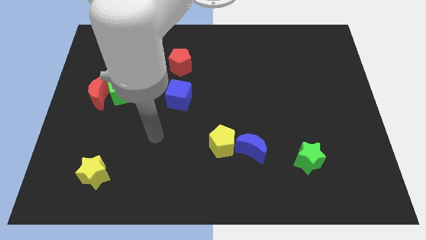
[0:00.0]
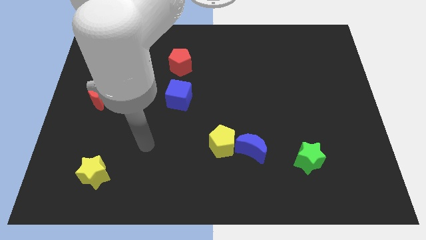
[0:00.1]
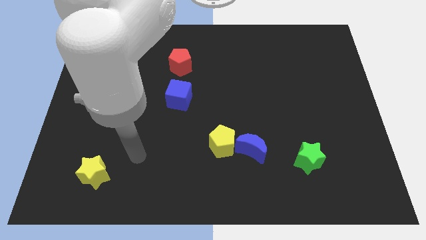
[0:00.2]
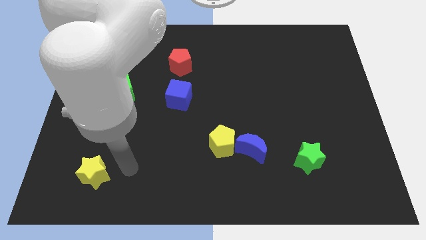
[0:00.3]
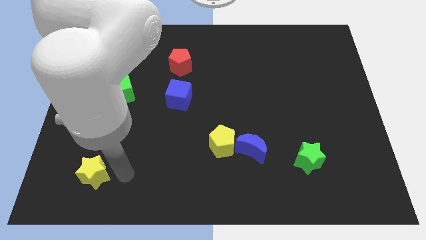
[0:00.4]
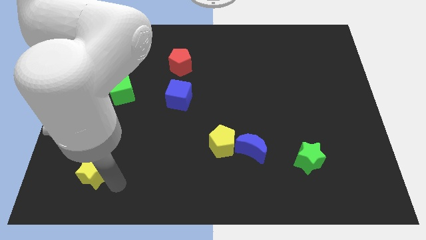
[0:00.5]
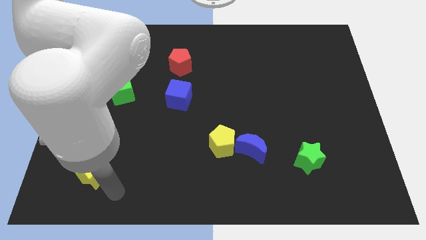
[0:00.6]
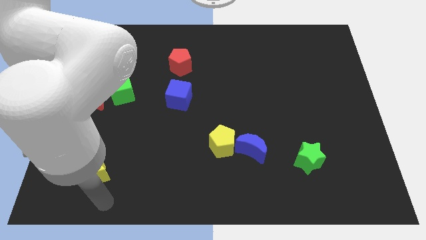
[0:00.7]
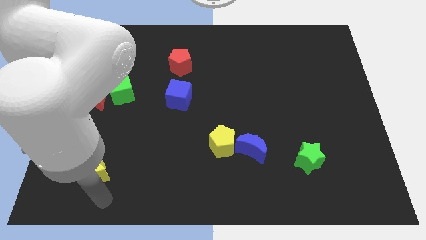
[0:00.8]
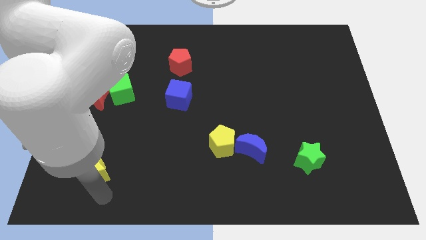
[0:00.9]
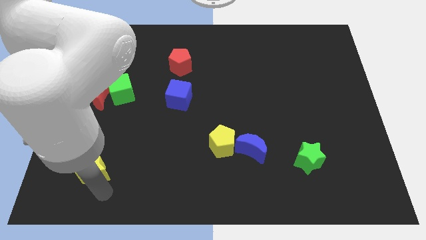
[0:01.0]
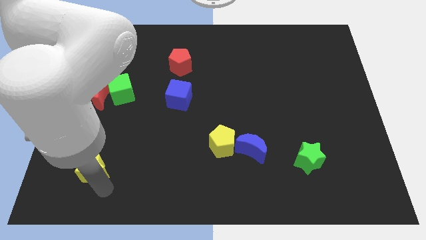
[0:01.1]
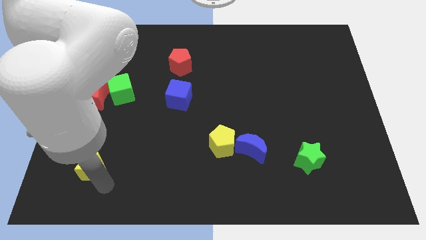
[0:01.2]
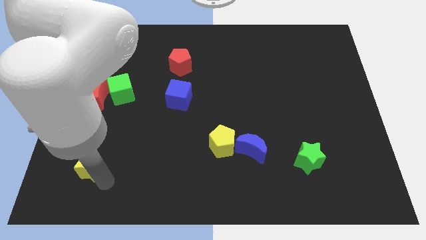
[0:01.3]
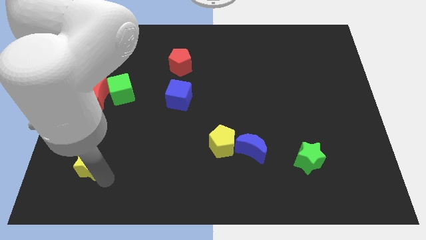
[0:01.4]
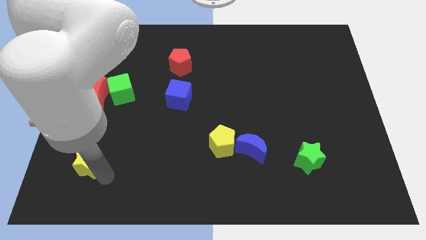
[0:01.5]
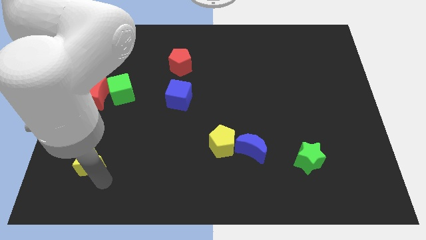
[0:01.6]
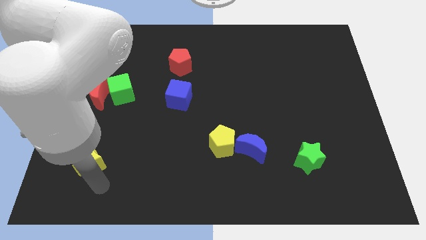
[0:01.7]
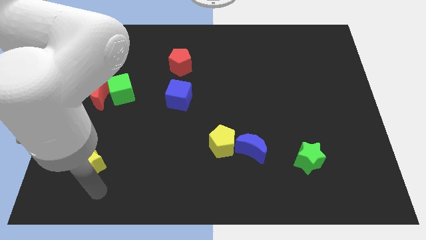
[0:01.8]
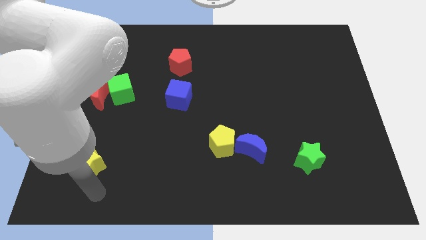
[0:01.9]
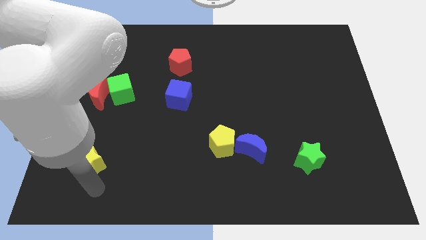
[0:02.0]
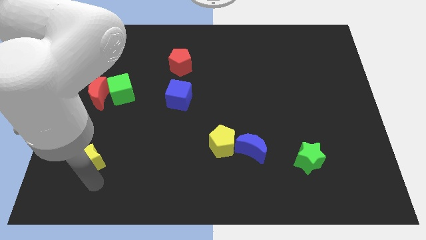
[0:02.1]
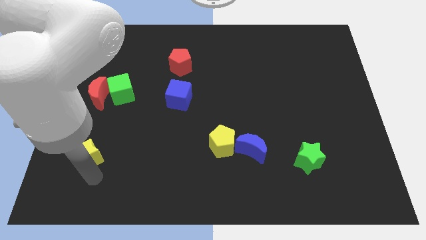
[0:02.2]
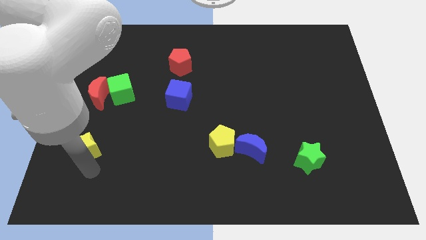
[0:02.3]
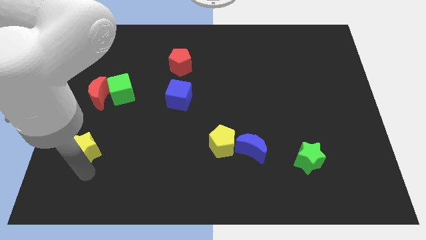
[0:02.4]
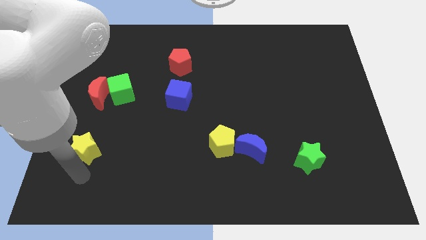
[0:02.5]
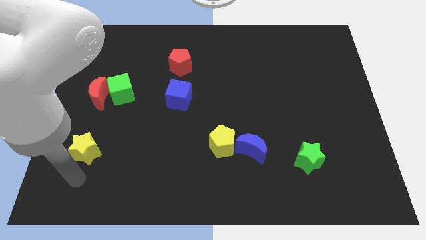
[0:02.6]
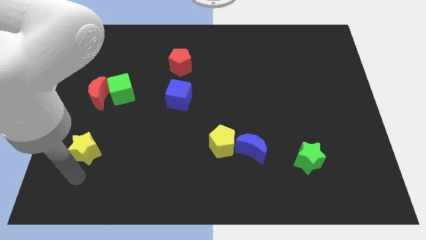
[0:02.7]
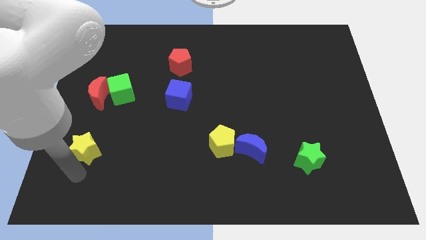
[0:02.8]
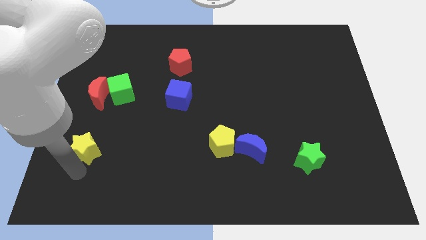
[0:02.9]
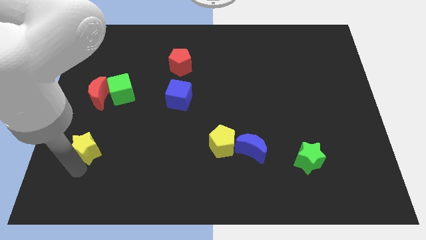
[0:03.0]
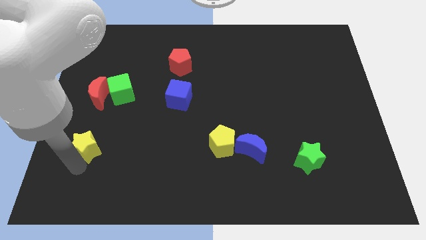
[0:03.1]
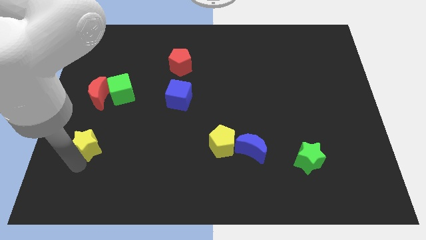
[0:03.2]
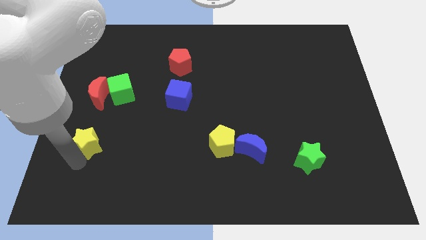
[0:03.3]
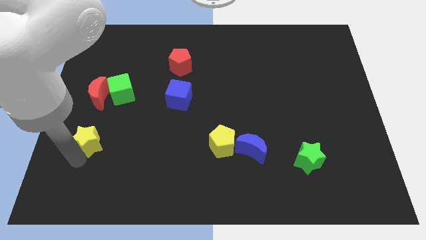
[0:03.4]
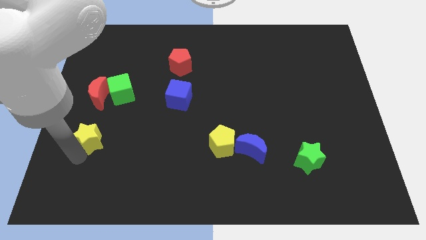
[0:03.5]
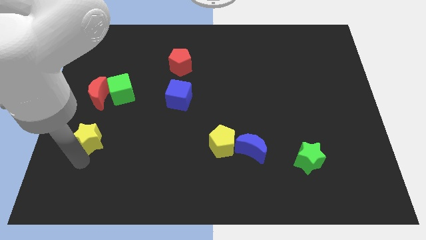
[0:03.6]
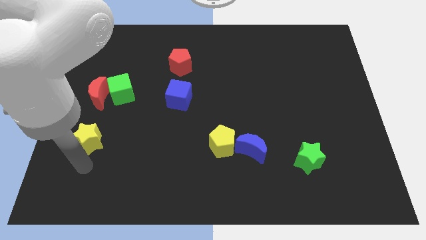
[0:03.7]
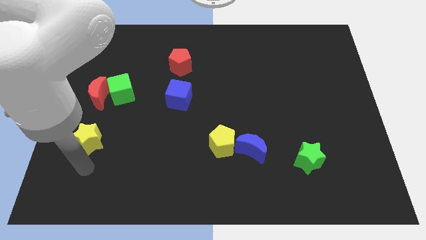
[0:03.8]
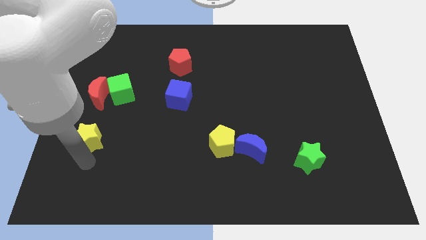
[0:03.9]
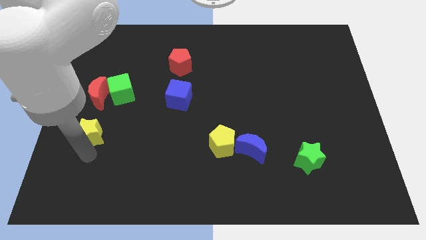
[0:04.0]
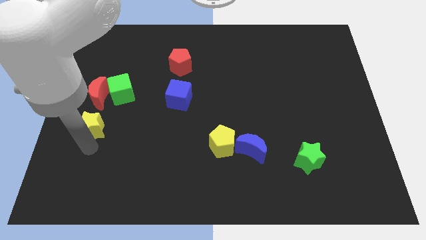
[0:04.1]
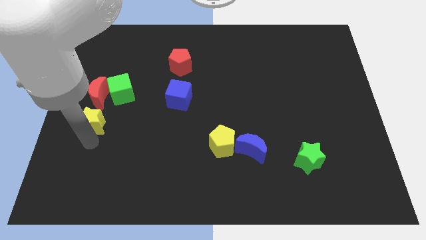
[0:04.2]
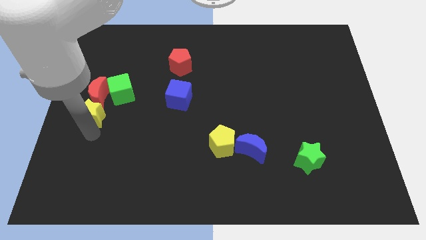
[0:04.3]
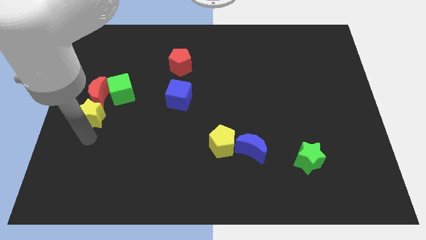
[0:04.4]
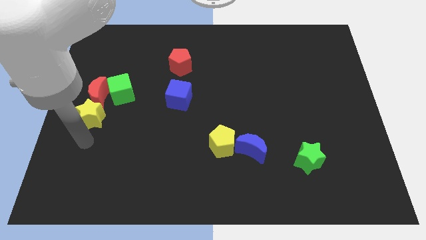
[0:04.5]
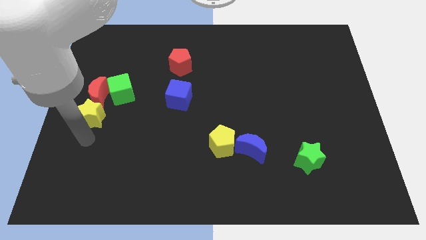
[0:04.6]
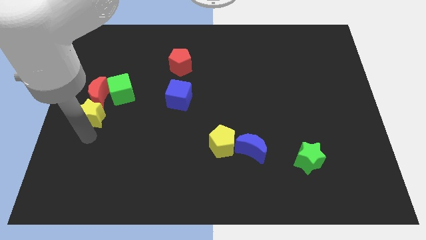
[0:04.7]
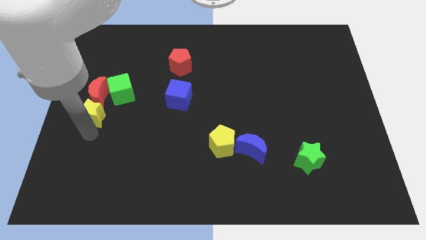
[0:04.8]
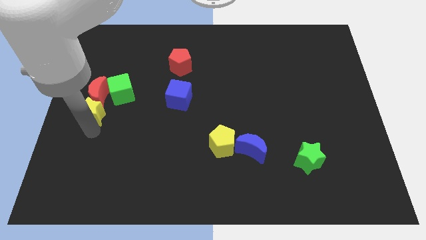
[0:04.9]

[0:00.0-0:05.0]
slide the yellow star to the red moon

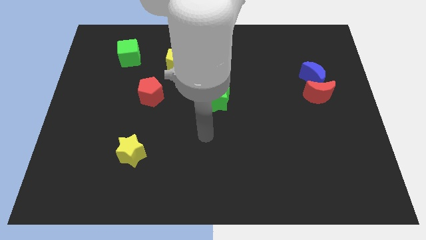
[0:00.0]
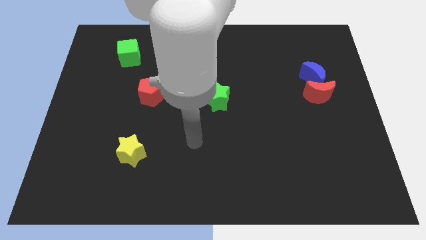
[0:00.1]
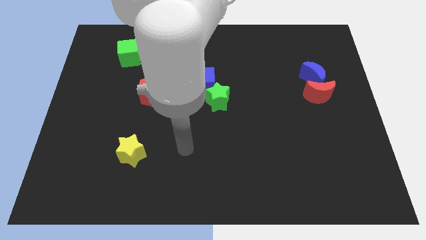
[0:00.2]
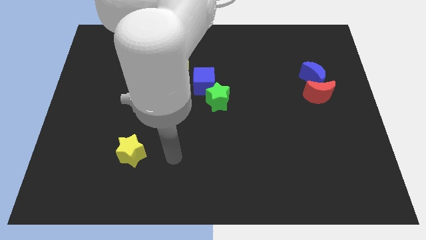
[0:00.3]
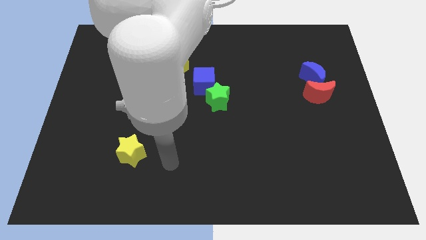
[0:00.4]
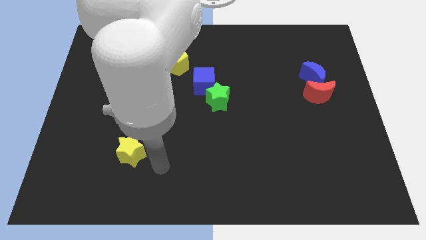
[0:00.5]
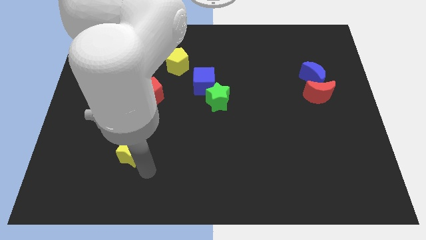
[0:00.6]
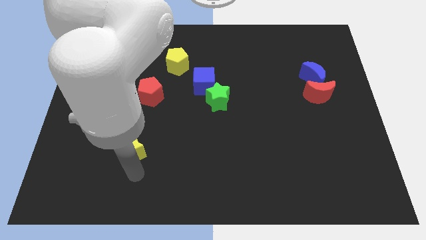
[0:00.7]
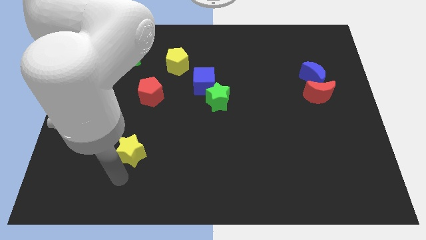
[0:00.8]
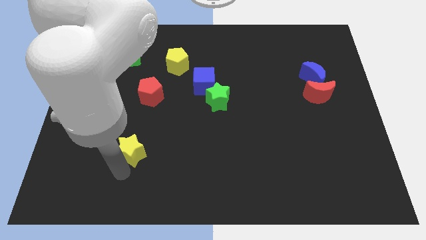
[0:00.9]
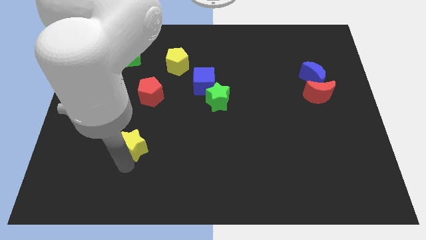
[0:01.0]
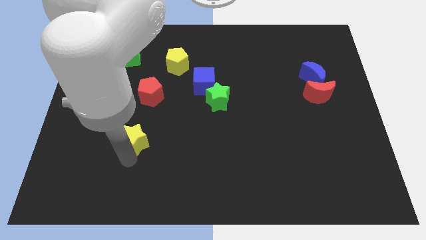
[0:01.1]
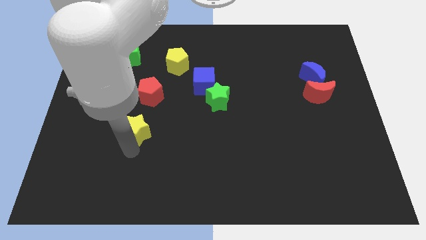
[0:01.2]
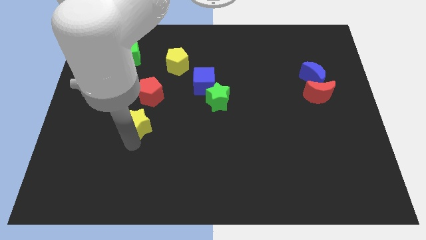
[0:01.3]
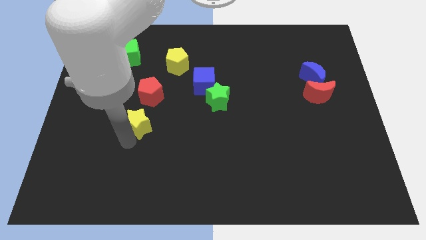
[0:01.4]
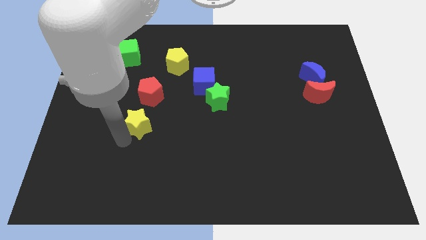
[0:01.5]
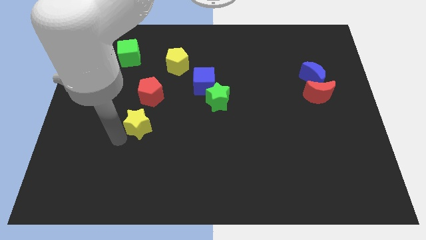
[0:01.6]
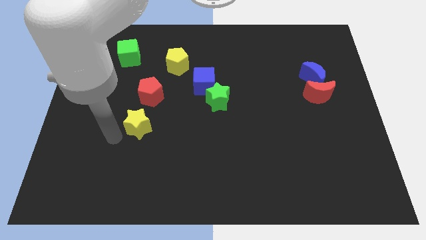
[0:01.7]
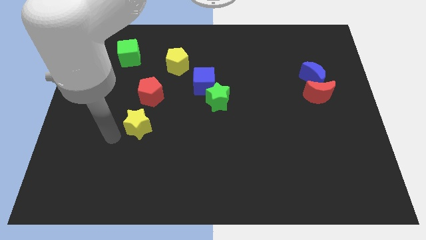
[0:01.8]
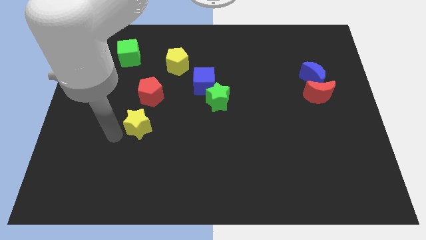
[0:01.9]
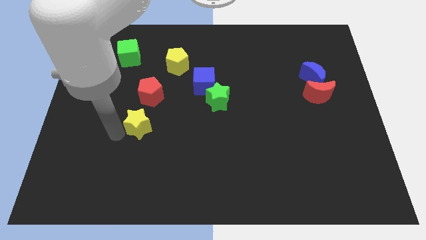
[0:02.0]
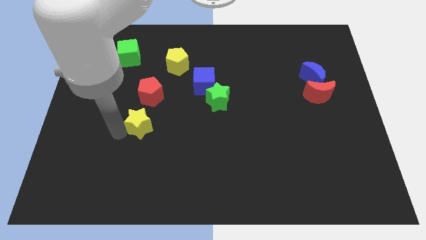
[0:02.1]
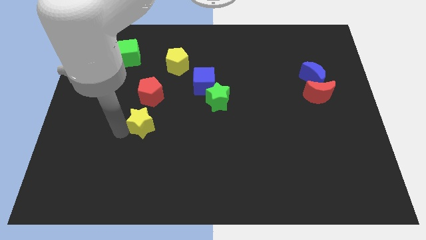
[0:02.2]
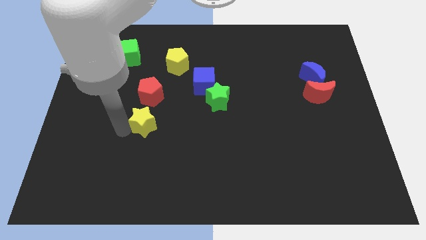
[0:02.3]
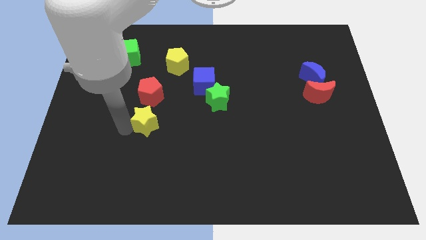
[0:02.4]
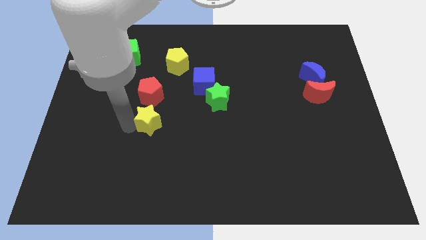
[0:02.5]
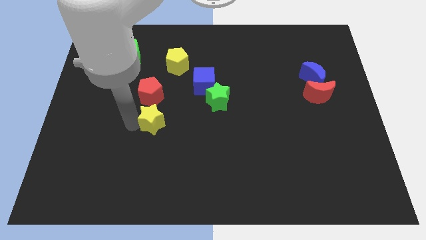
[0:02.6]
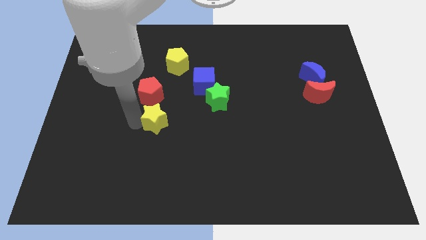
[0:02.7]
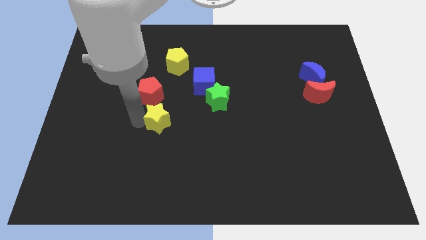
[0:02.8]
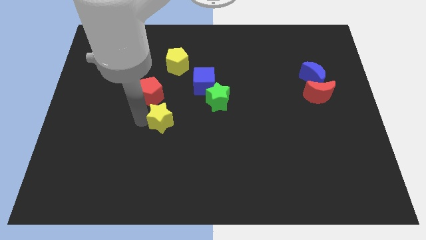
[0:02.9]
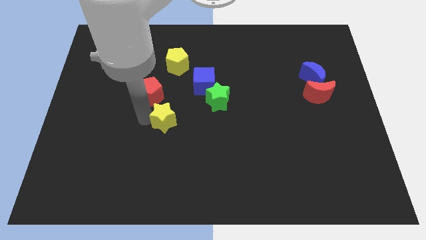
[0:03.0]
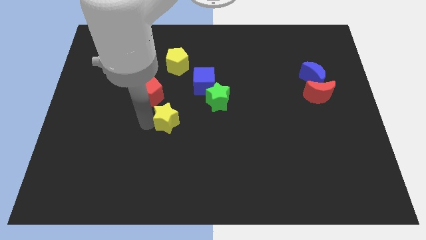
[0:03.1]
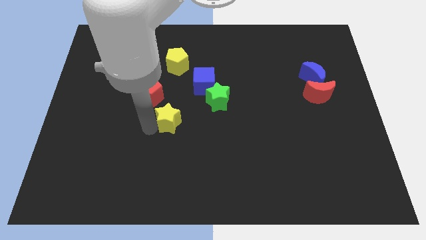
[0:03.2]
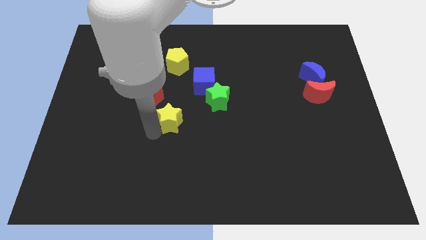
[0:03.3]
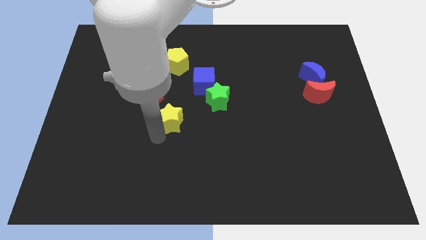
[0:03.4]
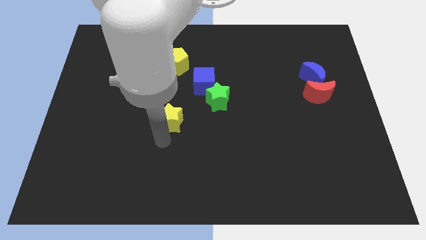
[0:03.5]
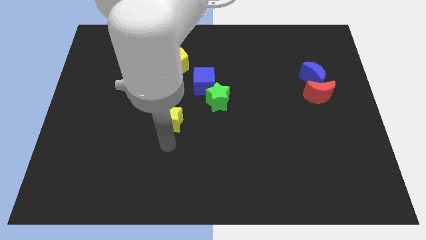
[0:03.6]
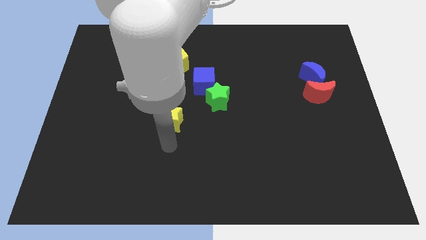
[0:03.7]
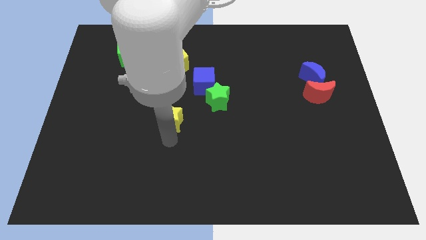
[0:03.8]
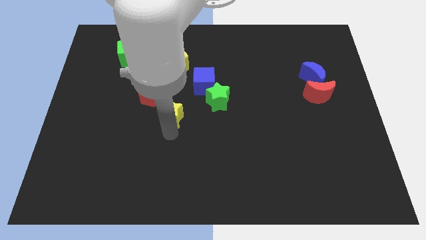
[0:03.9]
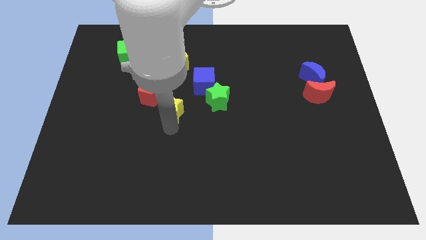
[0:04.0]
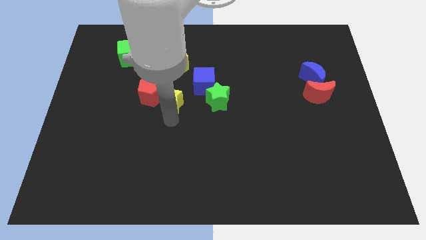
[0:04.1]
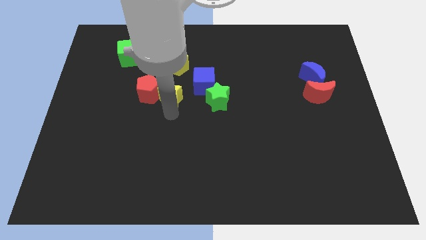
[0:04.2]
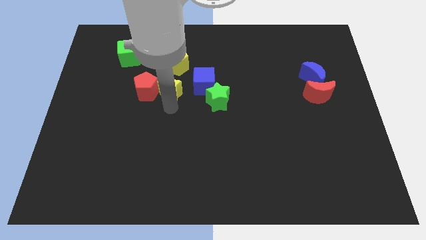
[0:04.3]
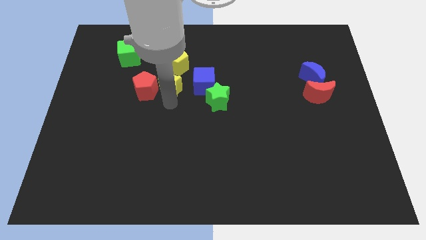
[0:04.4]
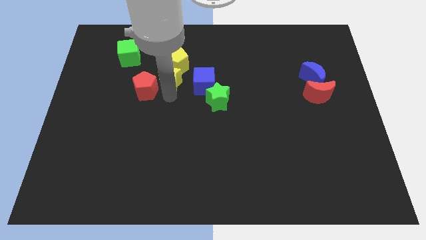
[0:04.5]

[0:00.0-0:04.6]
slide the yellow star to the yellow pentagon
